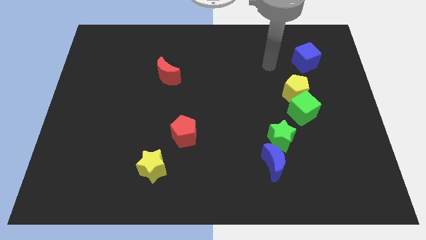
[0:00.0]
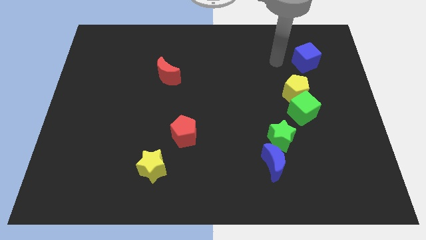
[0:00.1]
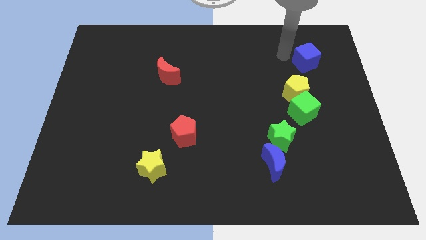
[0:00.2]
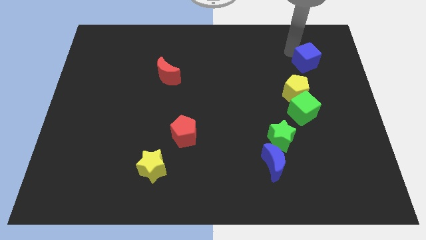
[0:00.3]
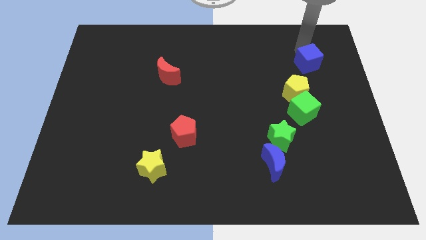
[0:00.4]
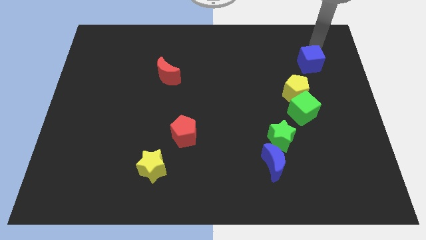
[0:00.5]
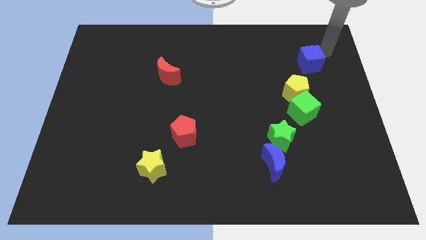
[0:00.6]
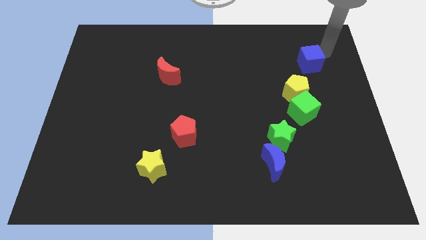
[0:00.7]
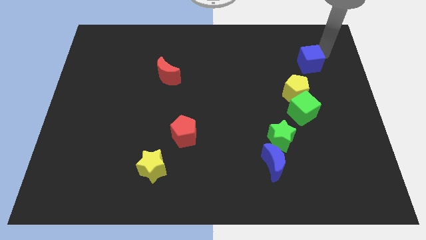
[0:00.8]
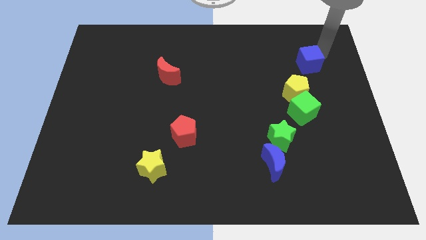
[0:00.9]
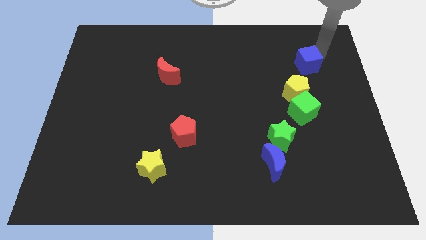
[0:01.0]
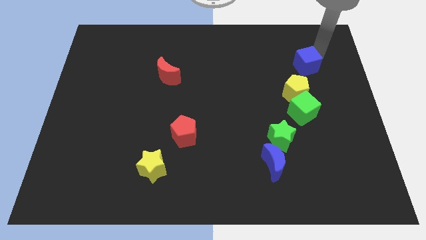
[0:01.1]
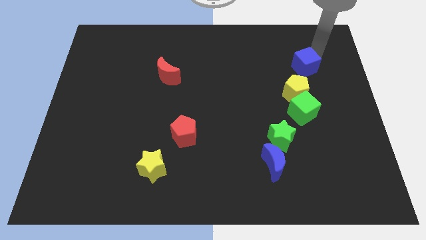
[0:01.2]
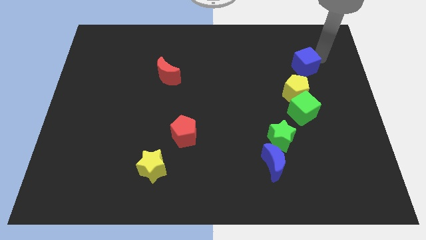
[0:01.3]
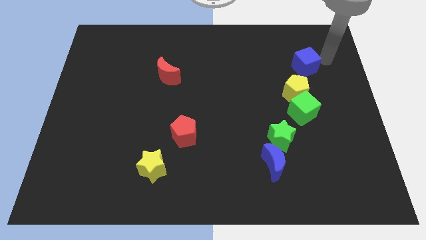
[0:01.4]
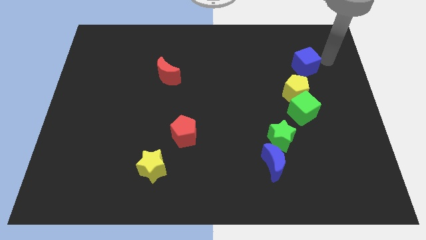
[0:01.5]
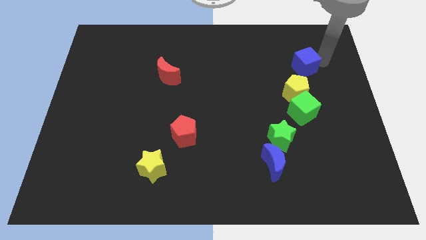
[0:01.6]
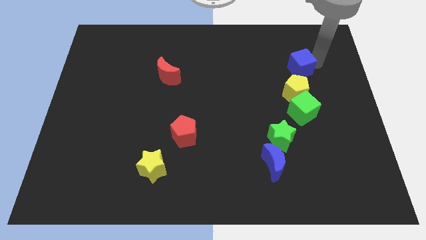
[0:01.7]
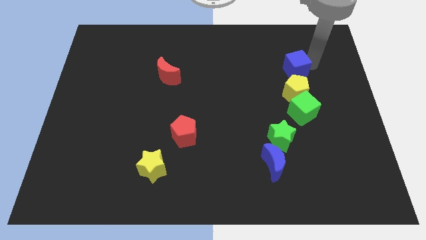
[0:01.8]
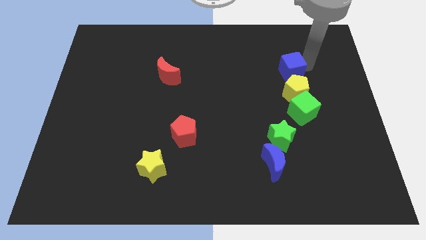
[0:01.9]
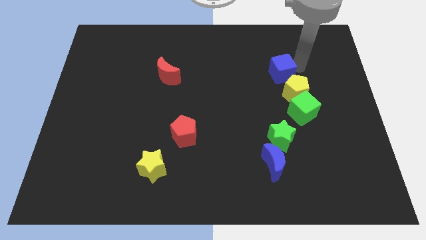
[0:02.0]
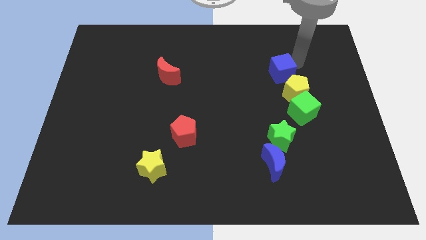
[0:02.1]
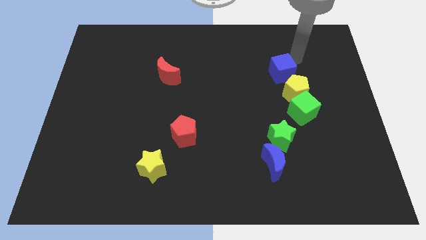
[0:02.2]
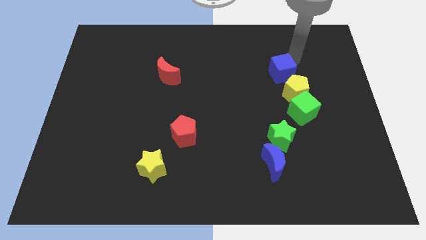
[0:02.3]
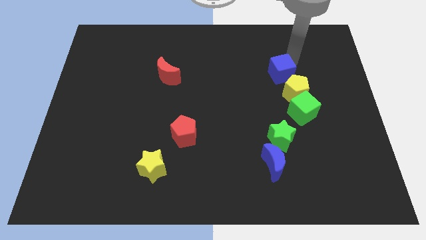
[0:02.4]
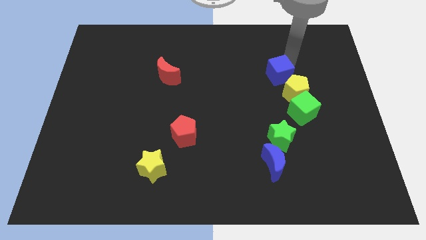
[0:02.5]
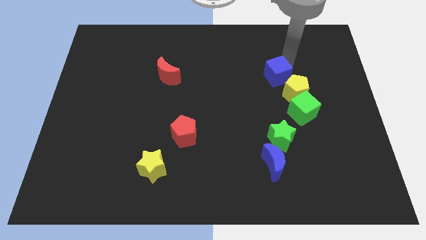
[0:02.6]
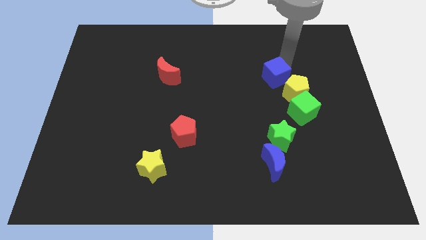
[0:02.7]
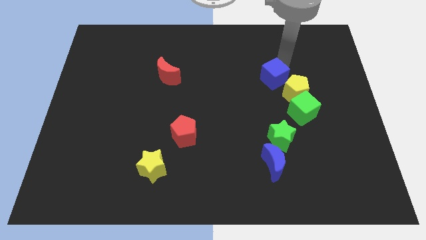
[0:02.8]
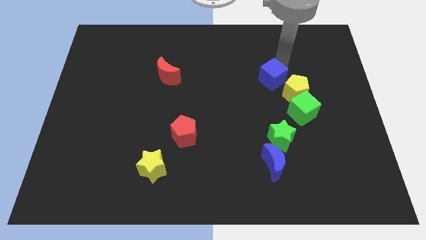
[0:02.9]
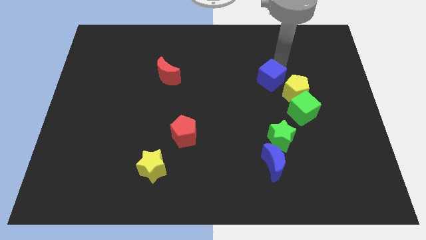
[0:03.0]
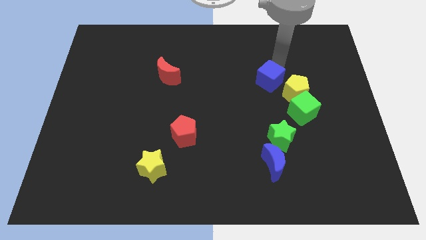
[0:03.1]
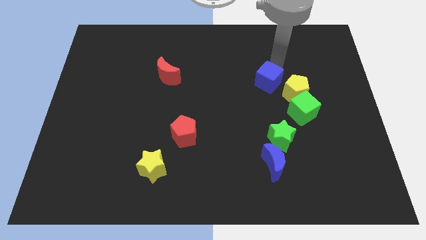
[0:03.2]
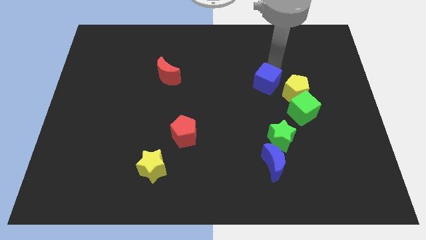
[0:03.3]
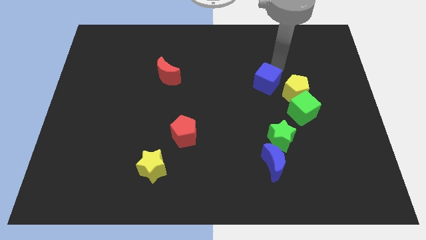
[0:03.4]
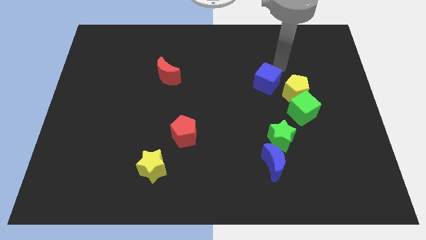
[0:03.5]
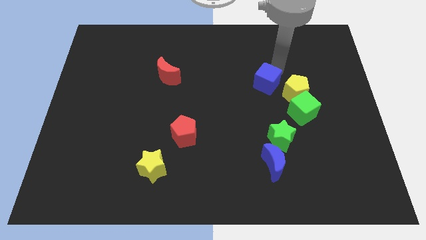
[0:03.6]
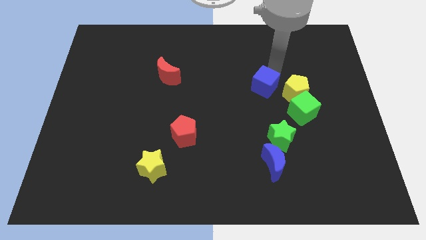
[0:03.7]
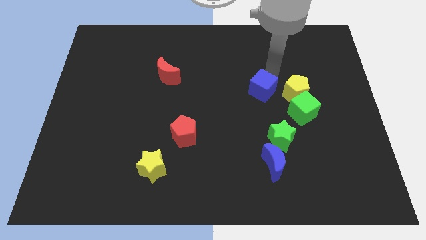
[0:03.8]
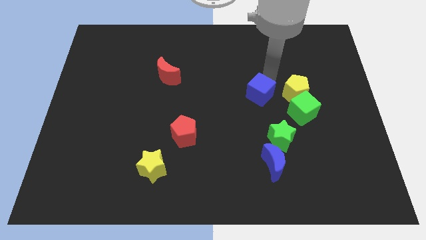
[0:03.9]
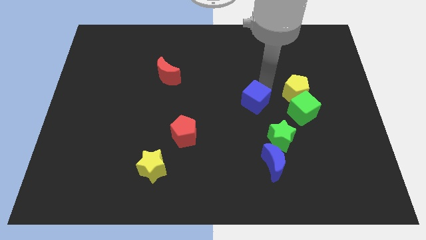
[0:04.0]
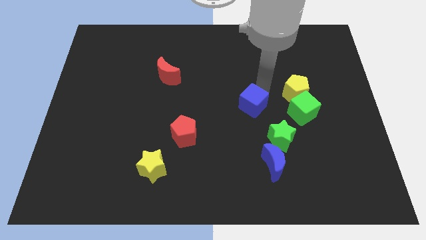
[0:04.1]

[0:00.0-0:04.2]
move the blue cube downwards and to the left

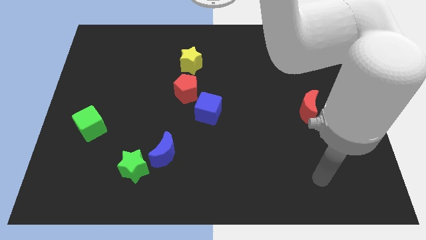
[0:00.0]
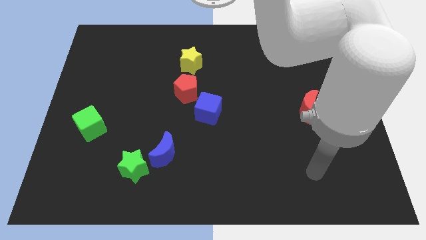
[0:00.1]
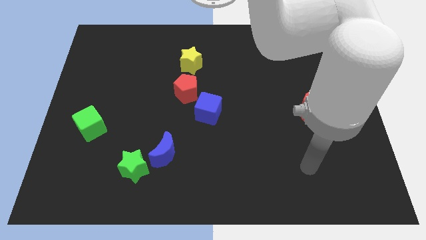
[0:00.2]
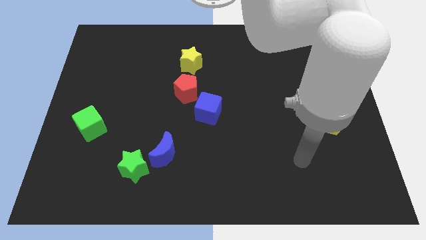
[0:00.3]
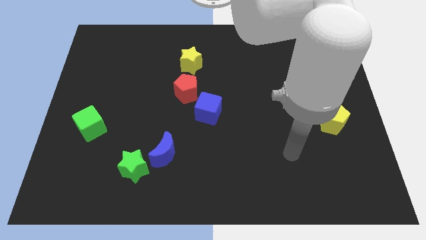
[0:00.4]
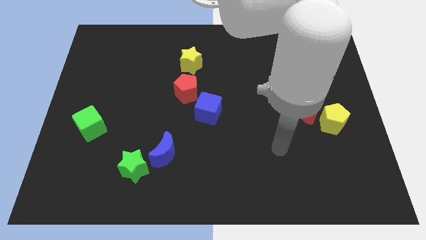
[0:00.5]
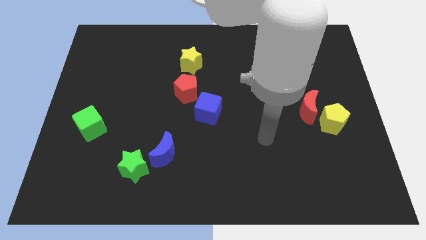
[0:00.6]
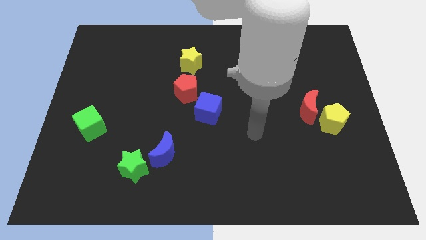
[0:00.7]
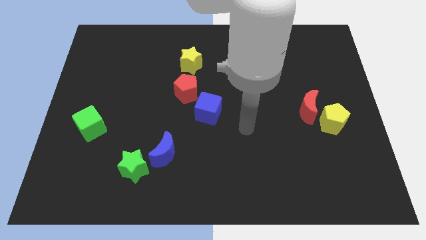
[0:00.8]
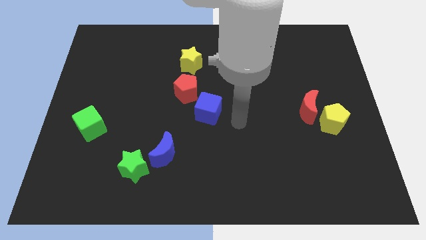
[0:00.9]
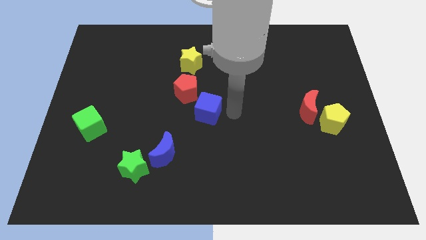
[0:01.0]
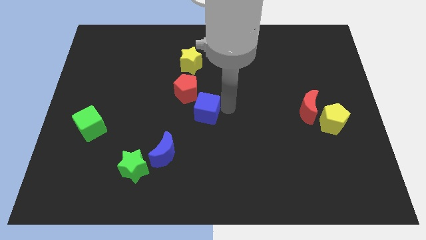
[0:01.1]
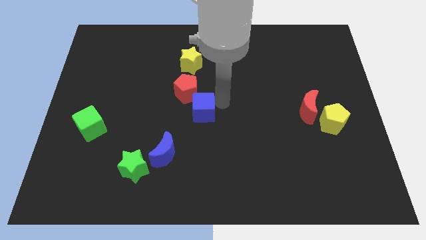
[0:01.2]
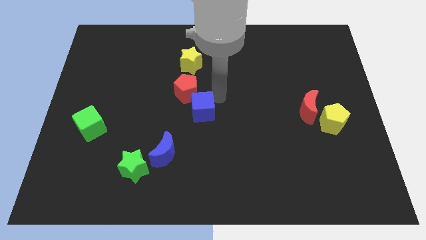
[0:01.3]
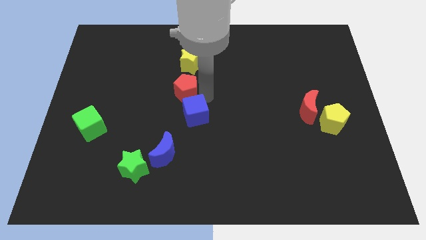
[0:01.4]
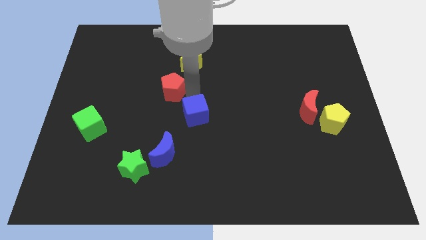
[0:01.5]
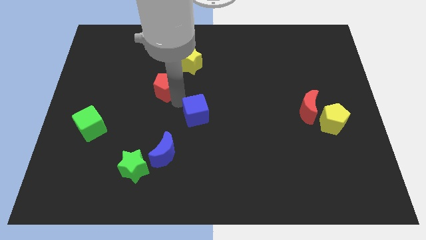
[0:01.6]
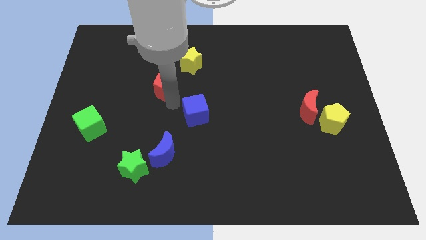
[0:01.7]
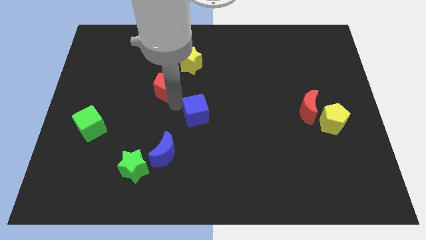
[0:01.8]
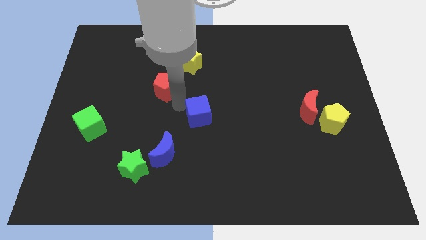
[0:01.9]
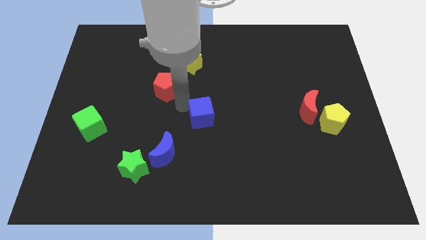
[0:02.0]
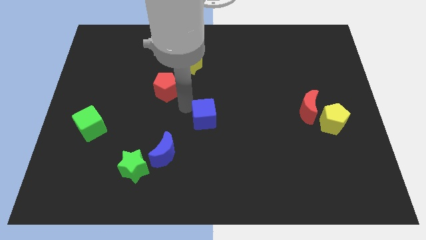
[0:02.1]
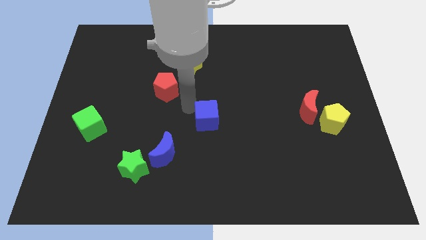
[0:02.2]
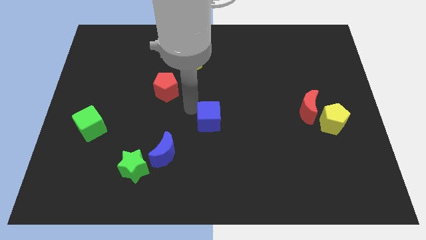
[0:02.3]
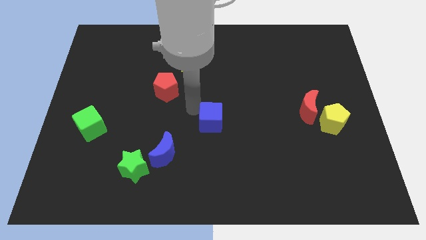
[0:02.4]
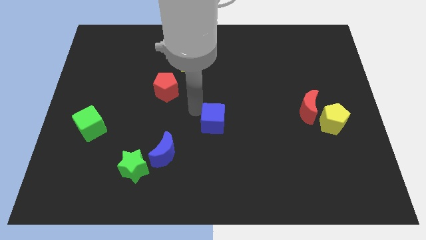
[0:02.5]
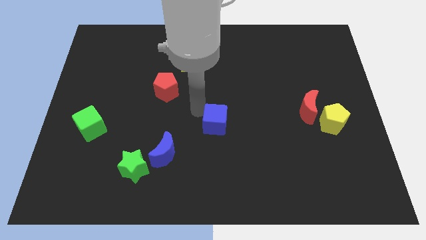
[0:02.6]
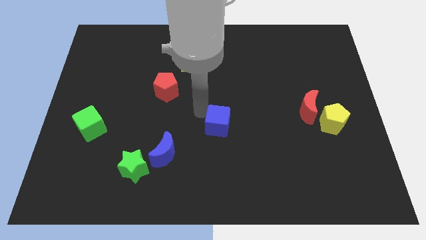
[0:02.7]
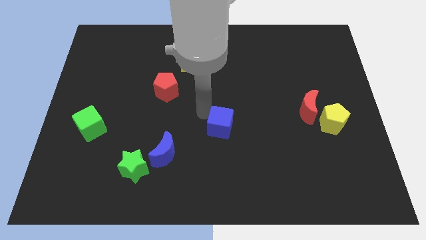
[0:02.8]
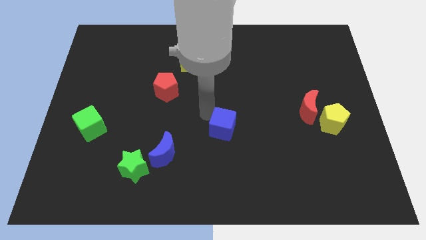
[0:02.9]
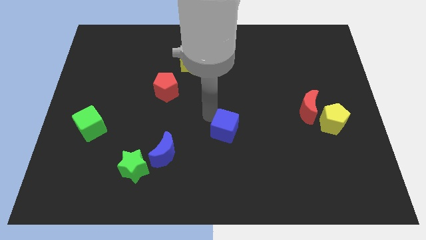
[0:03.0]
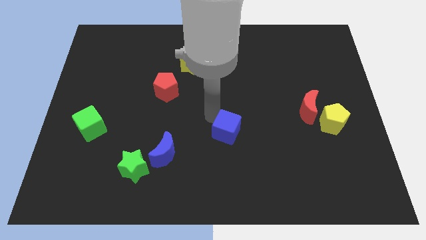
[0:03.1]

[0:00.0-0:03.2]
slightly slide the blue cube diagonally downwards and right

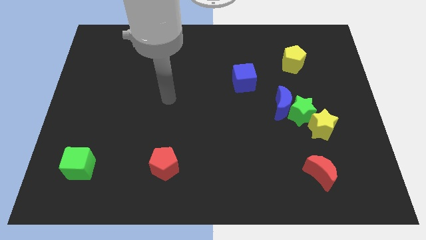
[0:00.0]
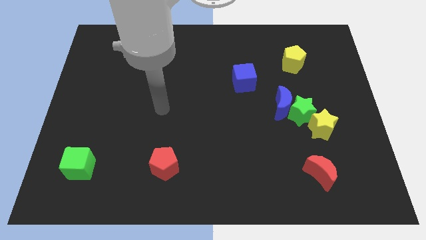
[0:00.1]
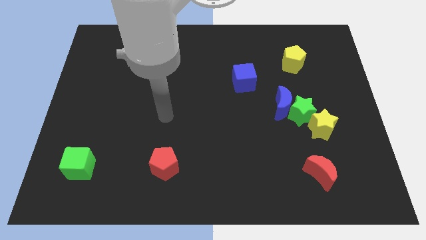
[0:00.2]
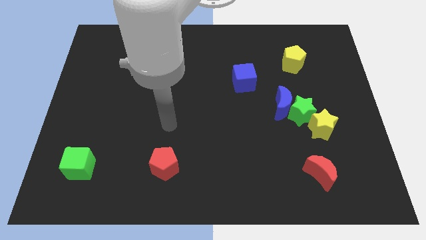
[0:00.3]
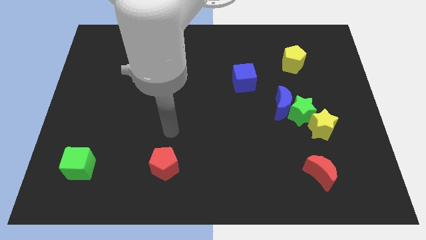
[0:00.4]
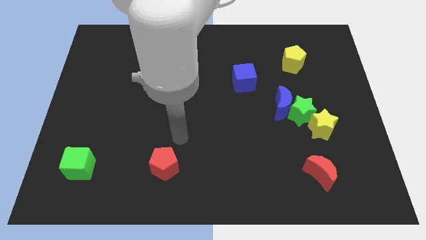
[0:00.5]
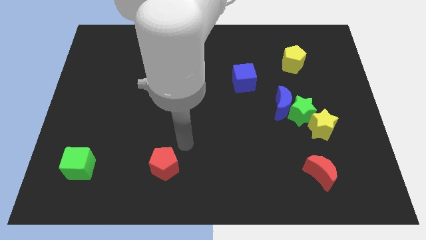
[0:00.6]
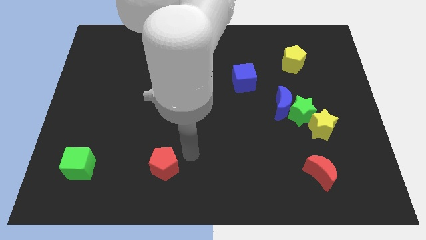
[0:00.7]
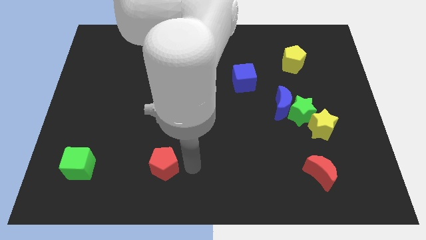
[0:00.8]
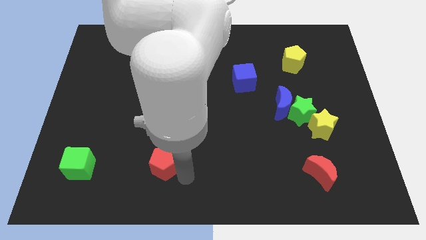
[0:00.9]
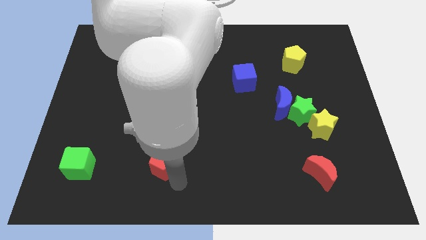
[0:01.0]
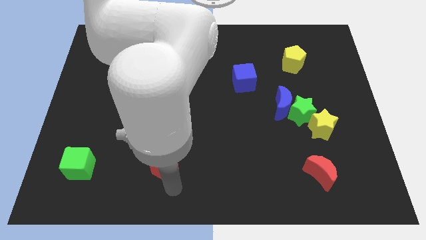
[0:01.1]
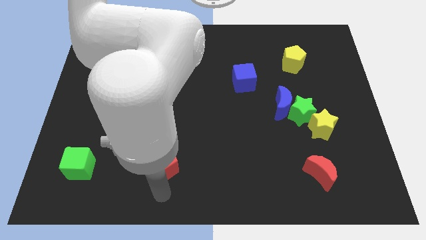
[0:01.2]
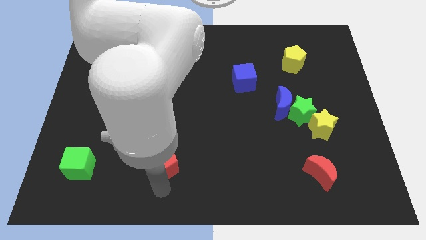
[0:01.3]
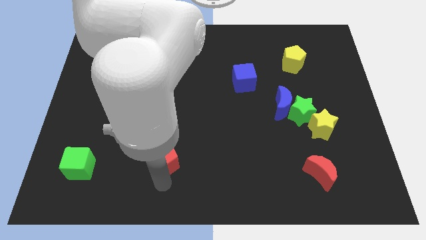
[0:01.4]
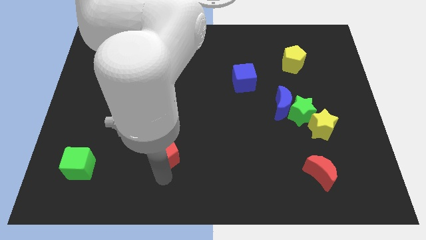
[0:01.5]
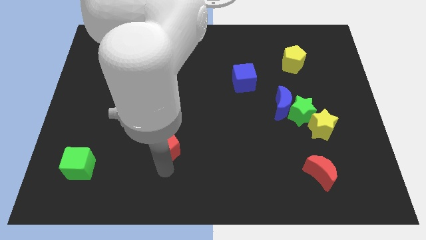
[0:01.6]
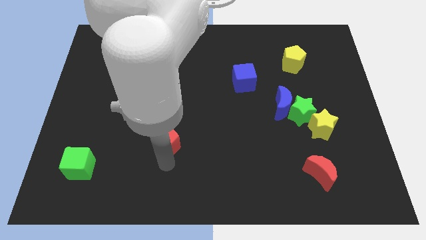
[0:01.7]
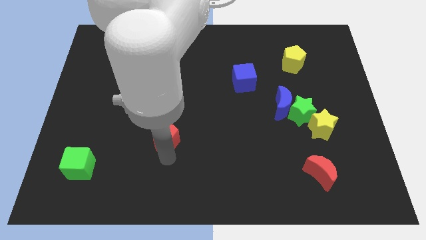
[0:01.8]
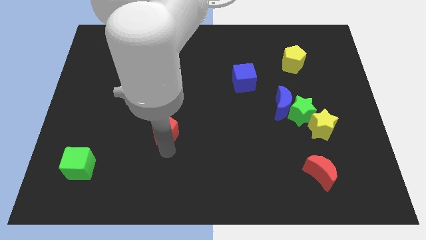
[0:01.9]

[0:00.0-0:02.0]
push the red pentagon somewhat up
